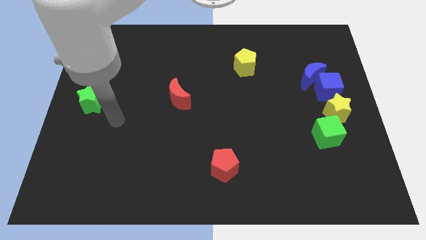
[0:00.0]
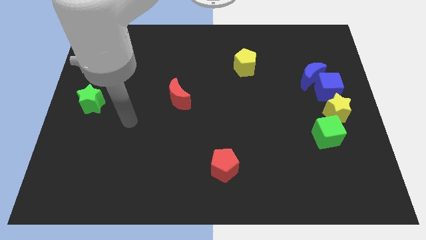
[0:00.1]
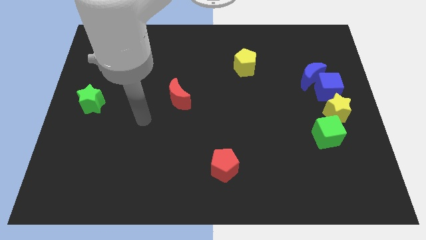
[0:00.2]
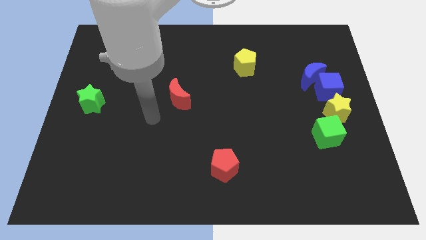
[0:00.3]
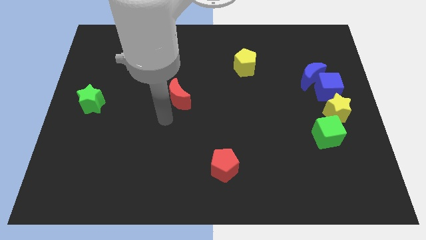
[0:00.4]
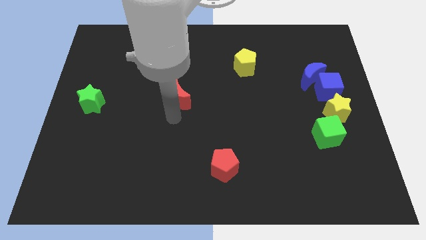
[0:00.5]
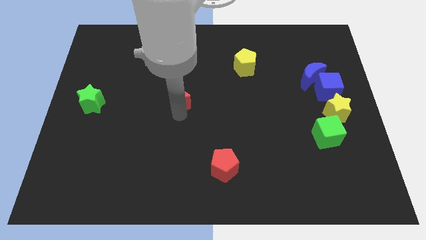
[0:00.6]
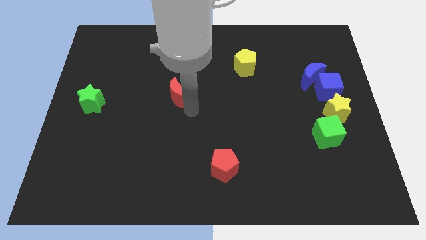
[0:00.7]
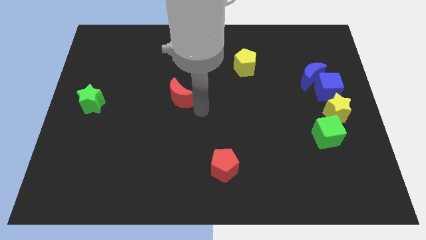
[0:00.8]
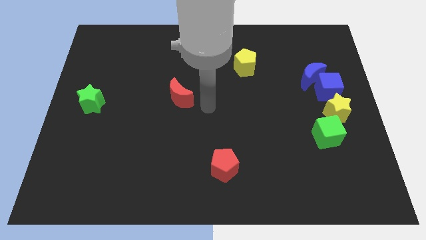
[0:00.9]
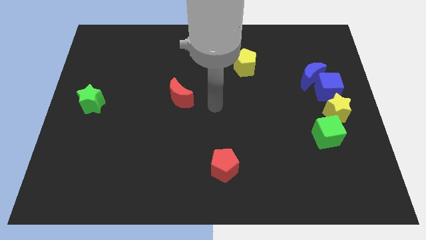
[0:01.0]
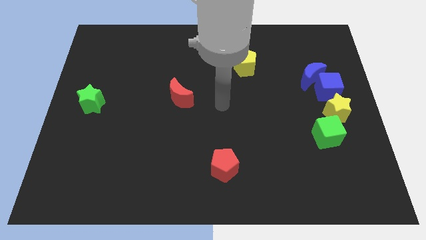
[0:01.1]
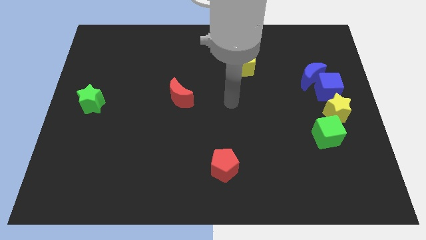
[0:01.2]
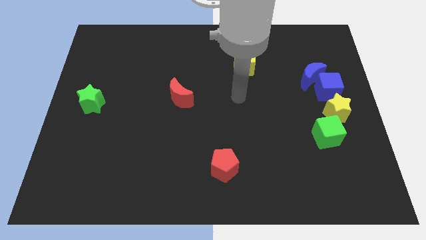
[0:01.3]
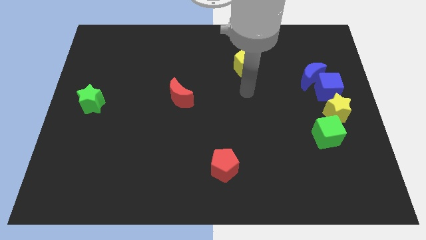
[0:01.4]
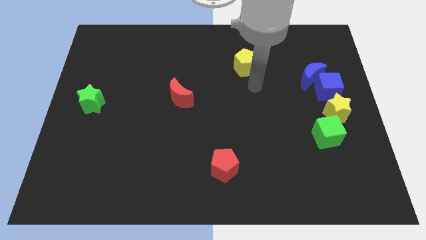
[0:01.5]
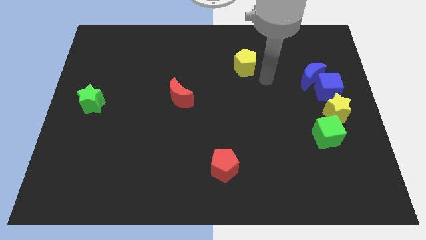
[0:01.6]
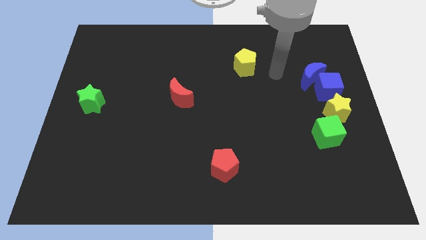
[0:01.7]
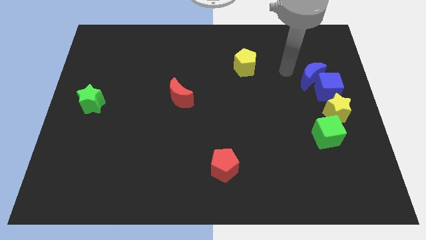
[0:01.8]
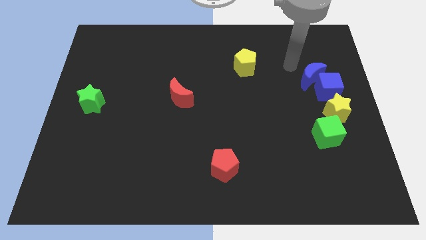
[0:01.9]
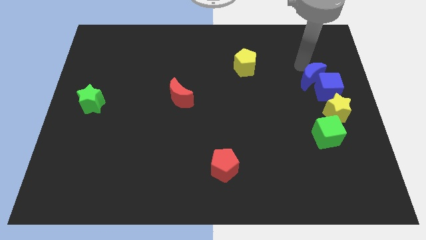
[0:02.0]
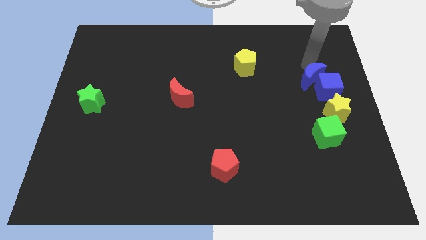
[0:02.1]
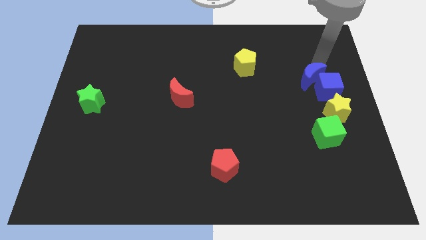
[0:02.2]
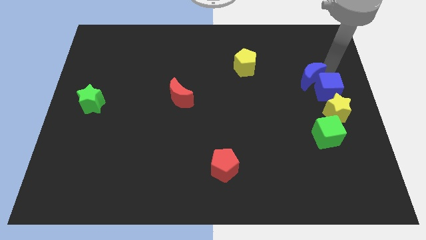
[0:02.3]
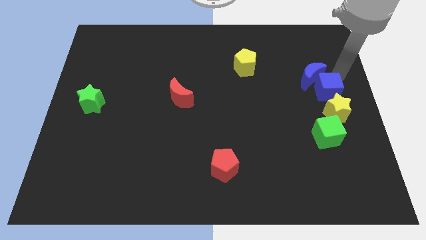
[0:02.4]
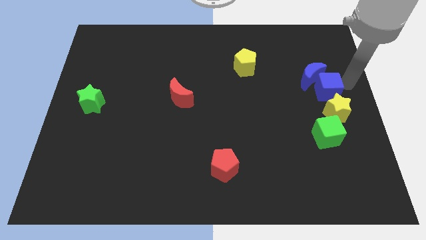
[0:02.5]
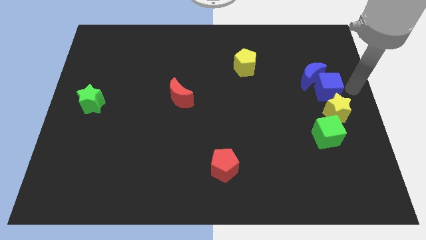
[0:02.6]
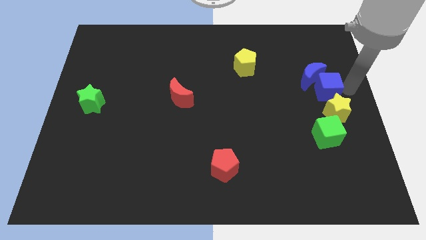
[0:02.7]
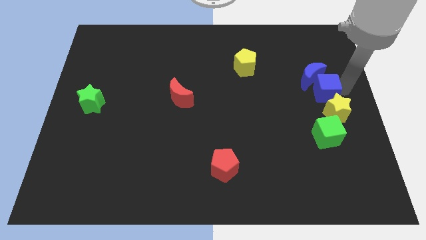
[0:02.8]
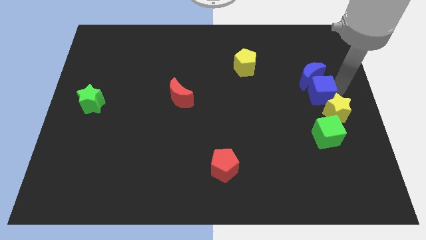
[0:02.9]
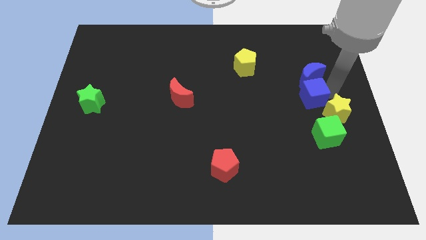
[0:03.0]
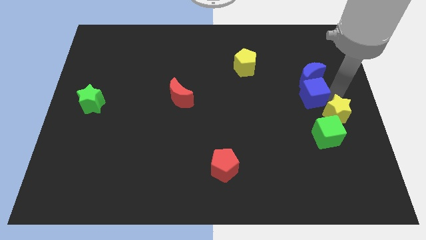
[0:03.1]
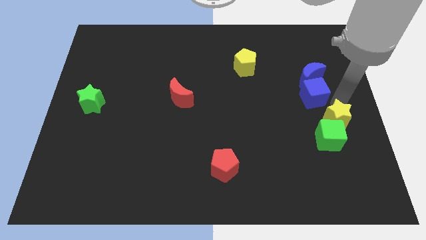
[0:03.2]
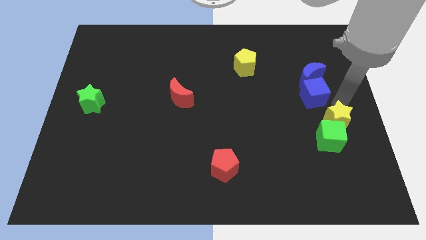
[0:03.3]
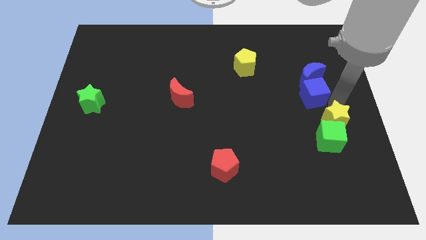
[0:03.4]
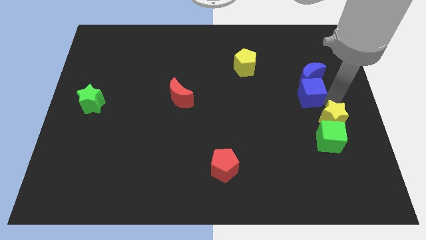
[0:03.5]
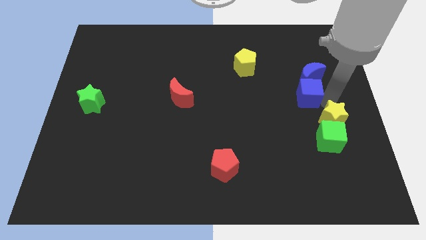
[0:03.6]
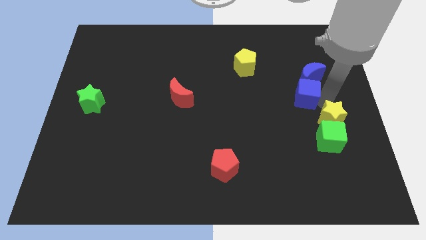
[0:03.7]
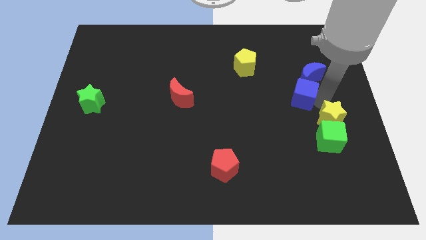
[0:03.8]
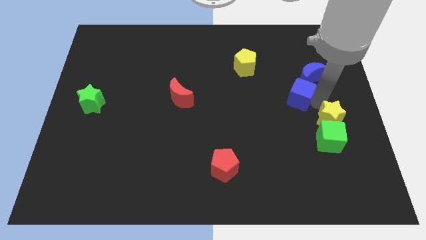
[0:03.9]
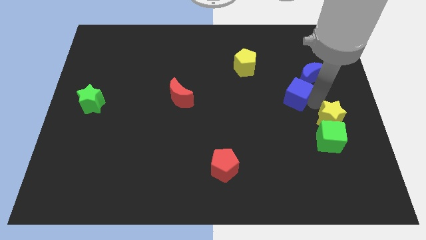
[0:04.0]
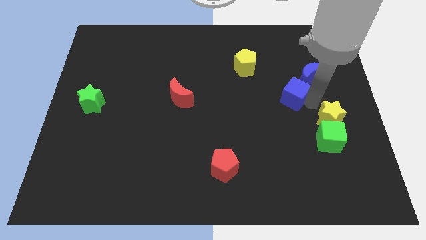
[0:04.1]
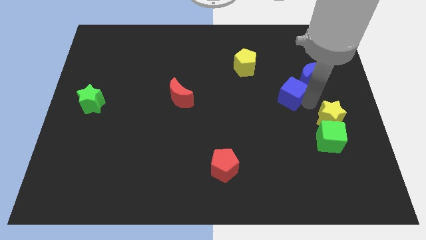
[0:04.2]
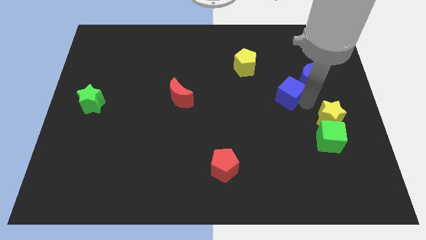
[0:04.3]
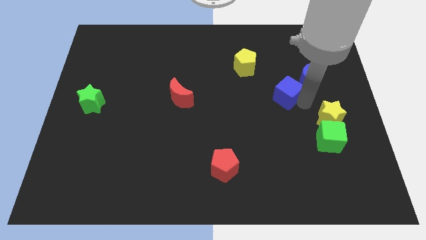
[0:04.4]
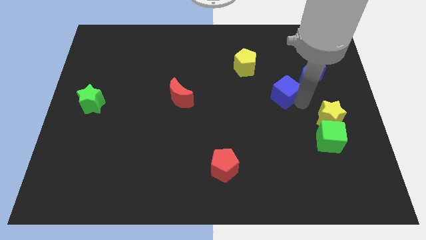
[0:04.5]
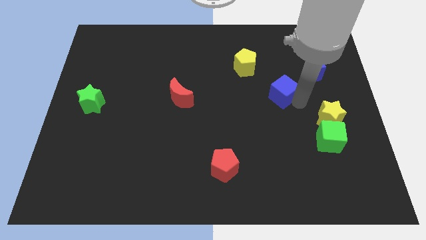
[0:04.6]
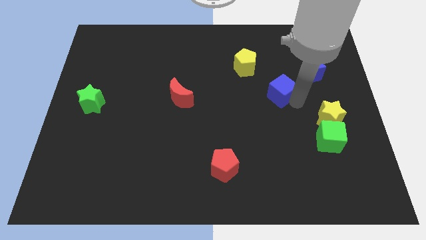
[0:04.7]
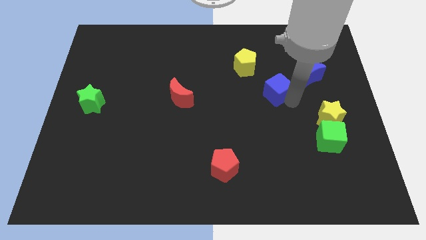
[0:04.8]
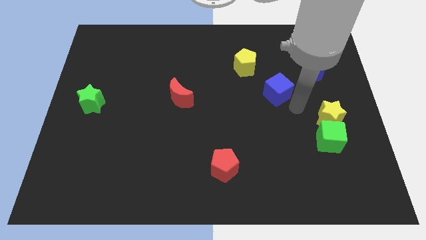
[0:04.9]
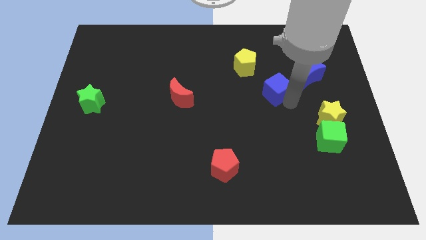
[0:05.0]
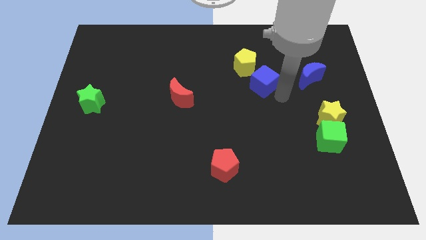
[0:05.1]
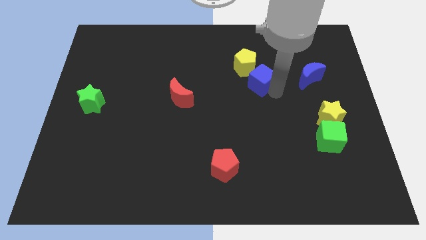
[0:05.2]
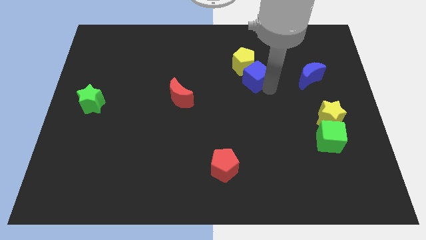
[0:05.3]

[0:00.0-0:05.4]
put the blue cube close to the yellow pentagon

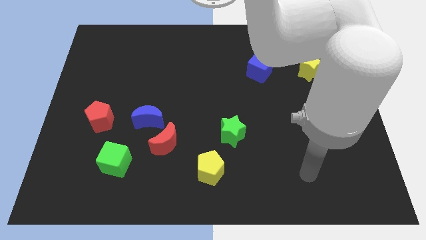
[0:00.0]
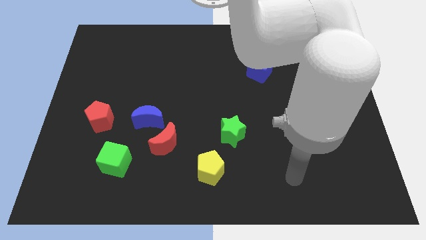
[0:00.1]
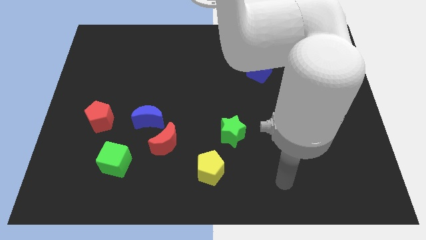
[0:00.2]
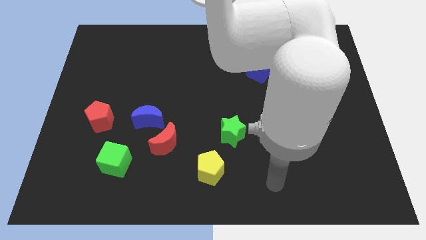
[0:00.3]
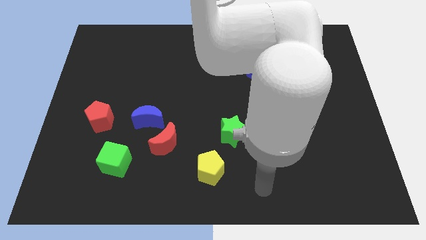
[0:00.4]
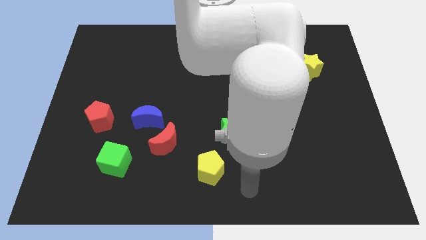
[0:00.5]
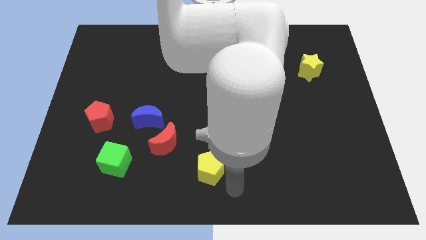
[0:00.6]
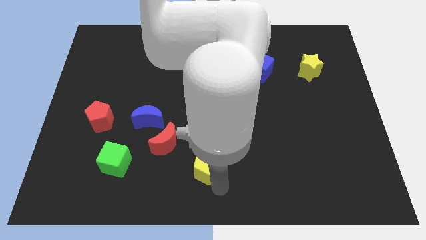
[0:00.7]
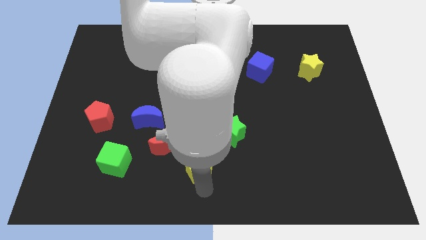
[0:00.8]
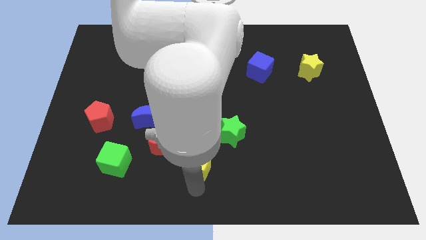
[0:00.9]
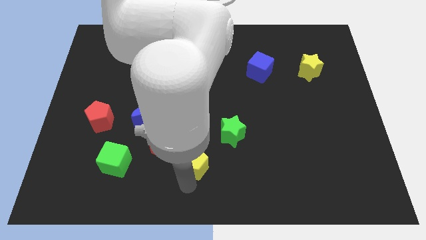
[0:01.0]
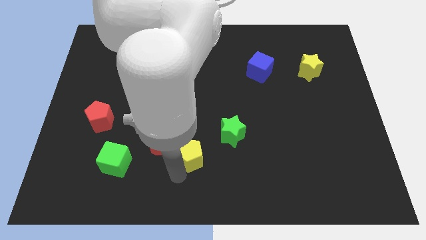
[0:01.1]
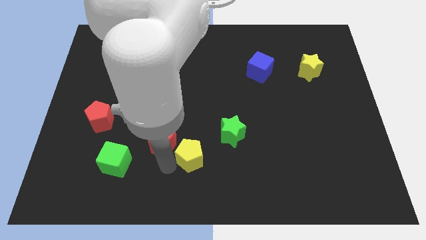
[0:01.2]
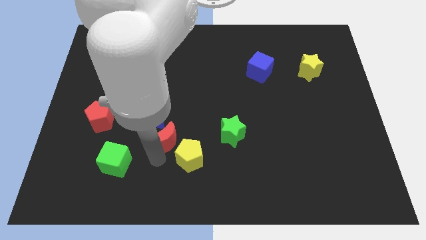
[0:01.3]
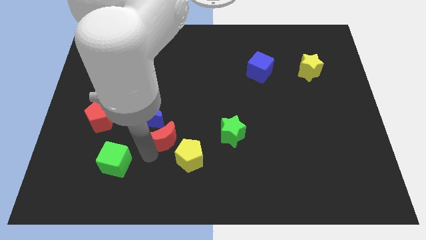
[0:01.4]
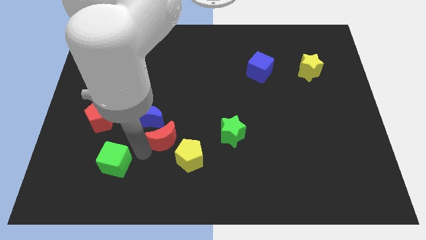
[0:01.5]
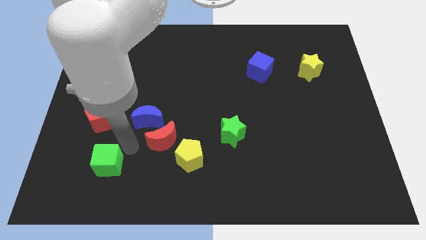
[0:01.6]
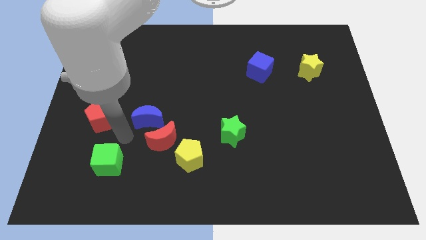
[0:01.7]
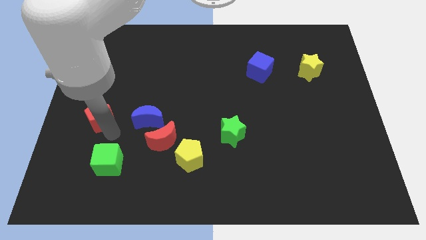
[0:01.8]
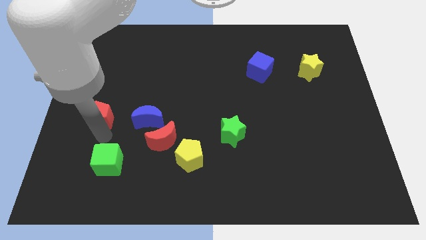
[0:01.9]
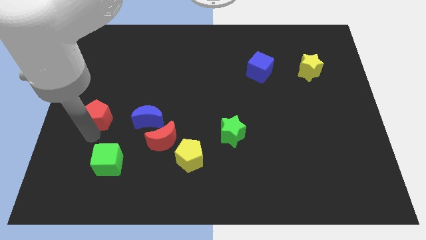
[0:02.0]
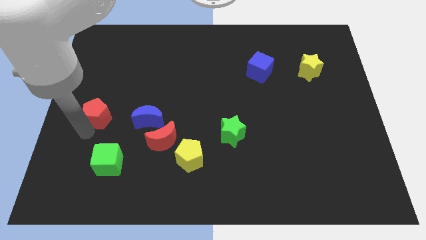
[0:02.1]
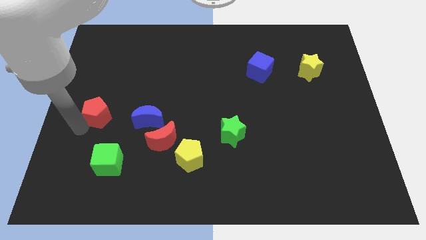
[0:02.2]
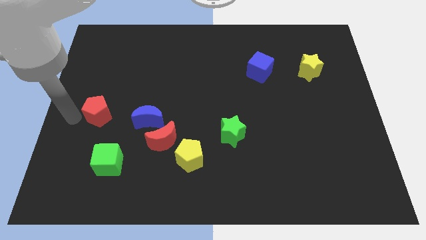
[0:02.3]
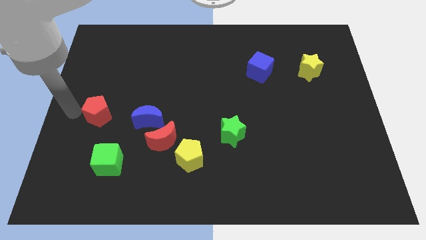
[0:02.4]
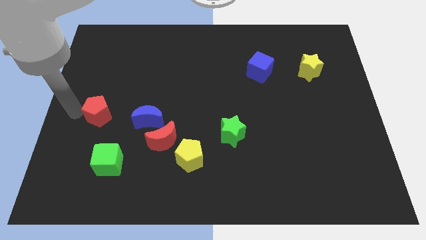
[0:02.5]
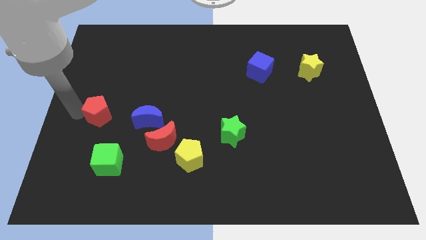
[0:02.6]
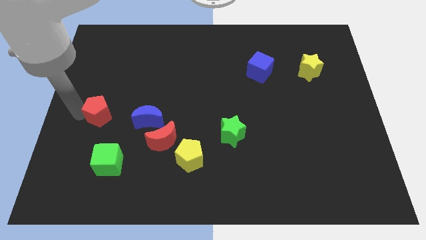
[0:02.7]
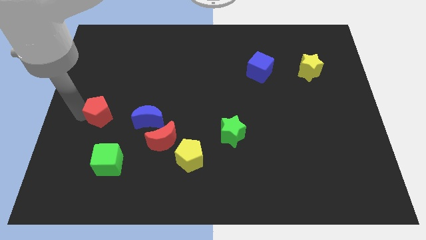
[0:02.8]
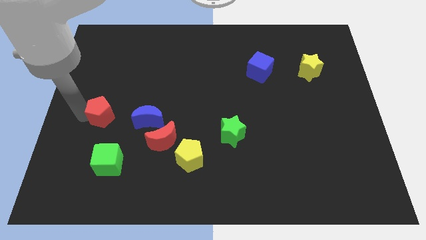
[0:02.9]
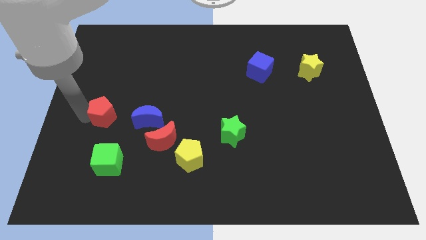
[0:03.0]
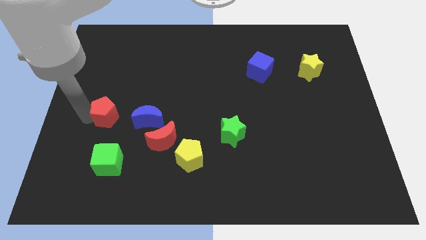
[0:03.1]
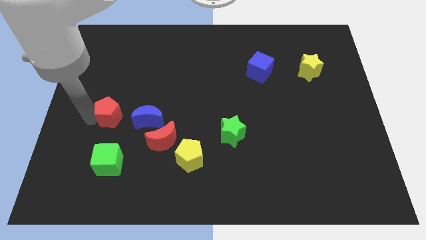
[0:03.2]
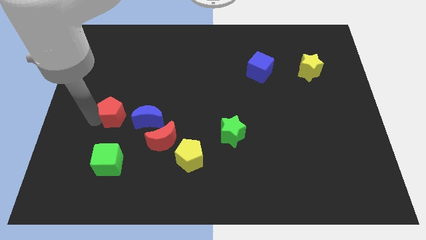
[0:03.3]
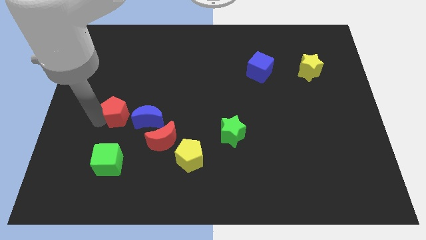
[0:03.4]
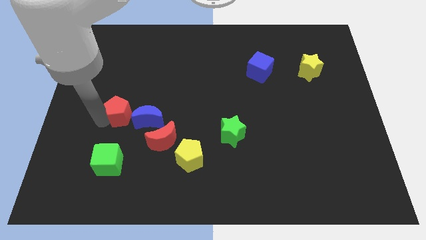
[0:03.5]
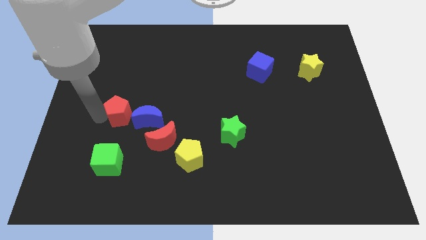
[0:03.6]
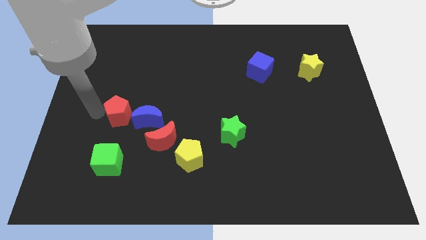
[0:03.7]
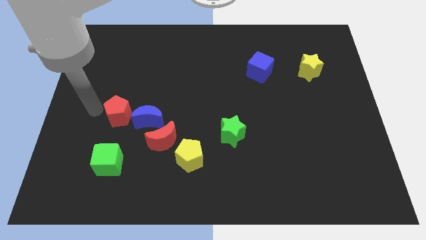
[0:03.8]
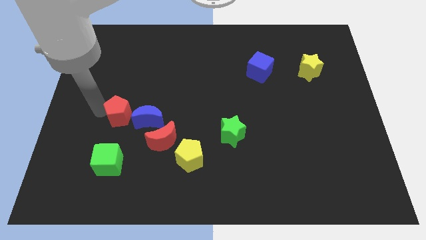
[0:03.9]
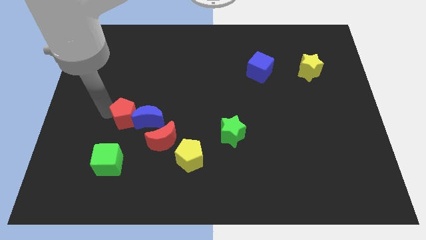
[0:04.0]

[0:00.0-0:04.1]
slide the red pentagon next to the blue moon
